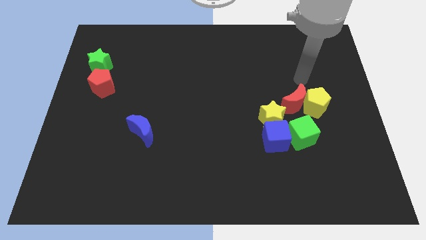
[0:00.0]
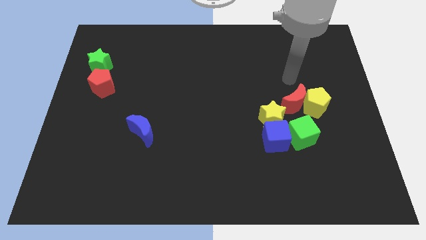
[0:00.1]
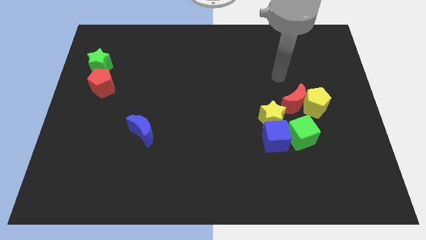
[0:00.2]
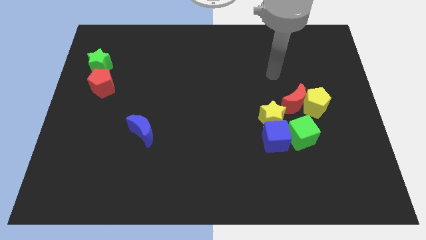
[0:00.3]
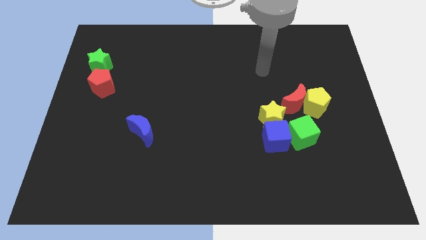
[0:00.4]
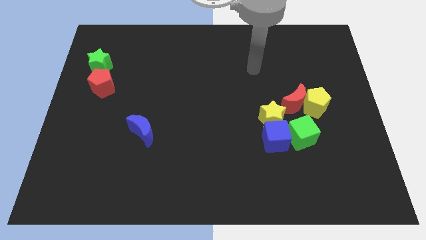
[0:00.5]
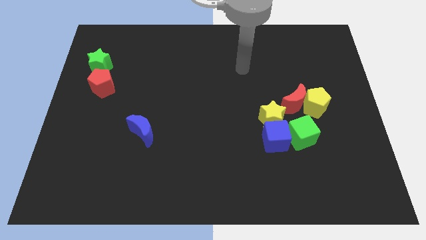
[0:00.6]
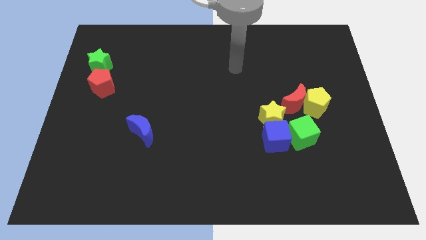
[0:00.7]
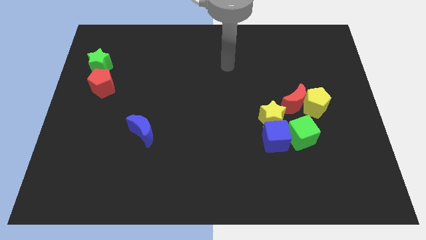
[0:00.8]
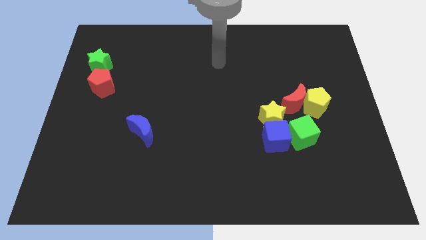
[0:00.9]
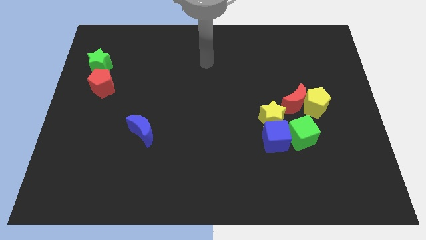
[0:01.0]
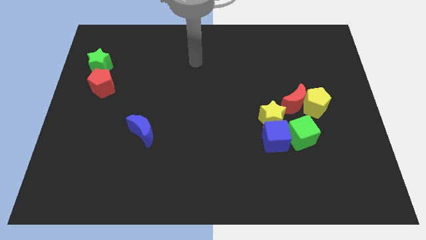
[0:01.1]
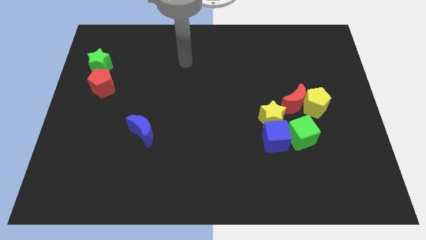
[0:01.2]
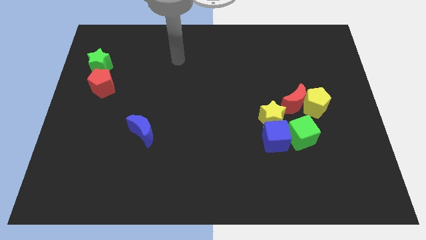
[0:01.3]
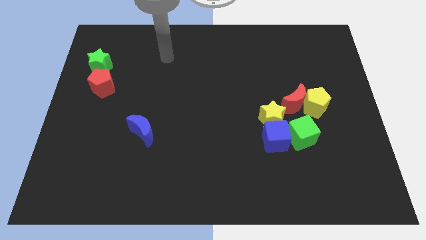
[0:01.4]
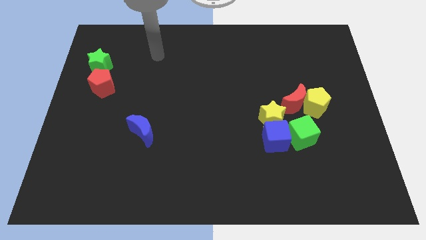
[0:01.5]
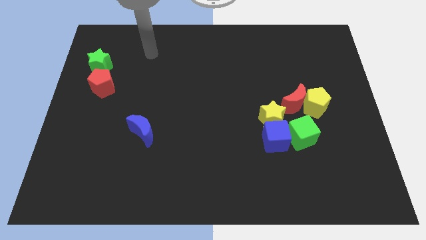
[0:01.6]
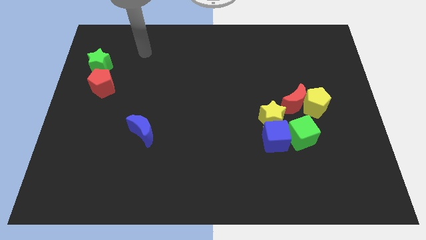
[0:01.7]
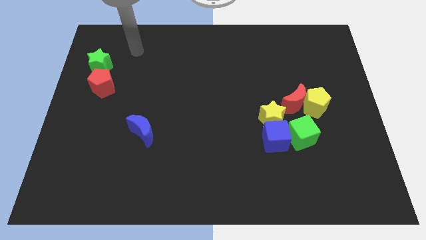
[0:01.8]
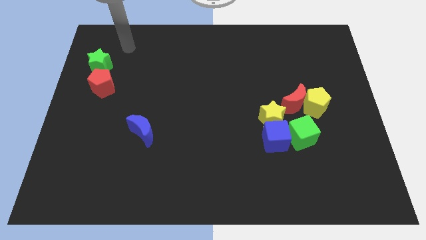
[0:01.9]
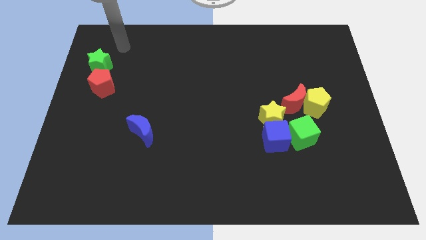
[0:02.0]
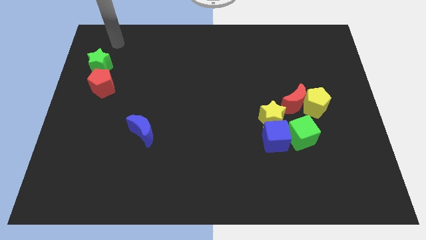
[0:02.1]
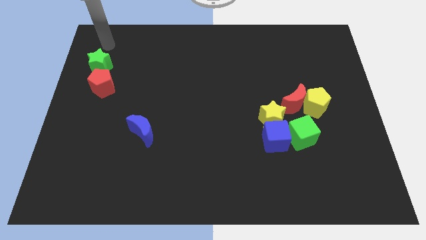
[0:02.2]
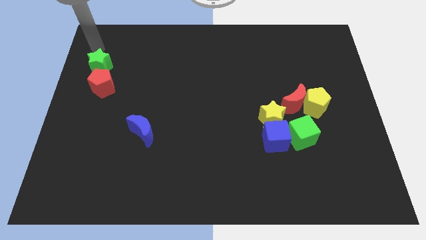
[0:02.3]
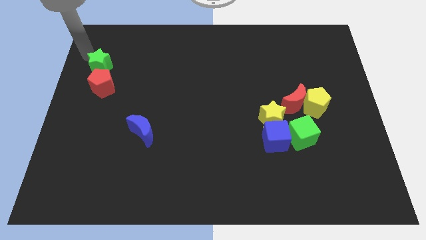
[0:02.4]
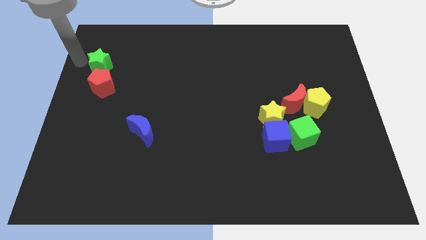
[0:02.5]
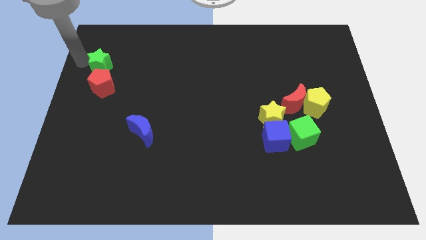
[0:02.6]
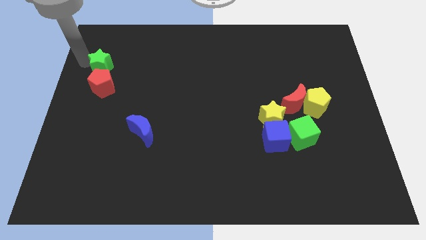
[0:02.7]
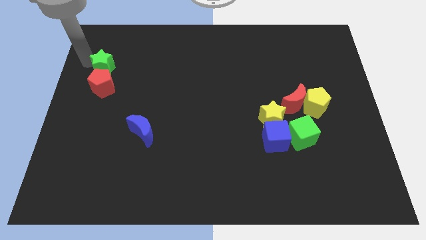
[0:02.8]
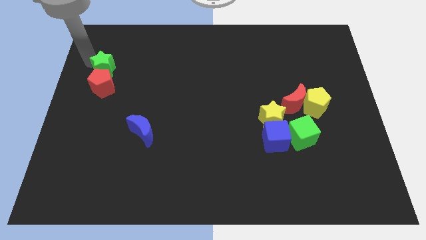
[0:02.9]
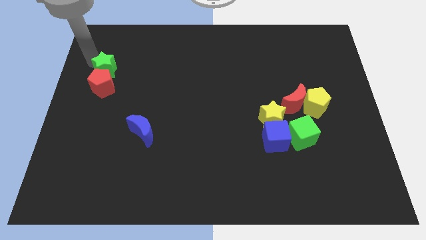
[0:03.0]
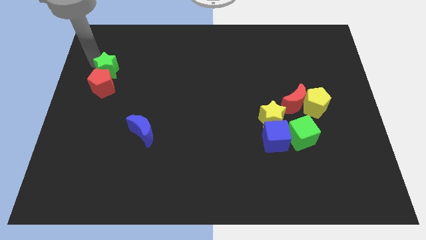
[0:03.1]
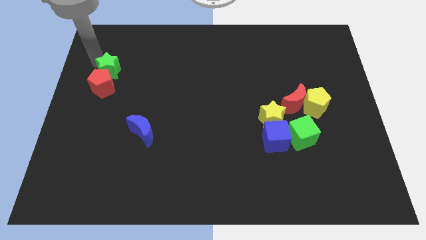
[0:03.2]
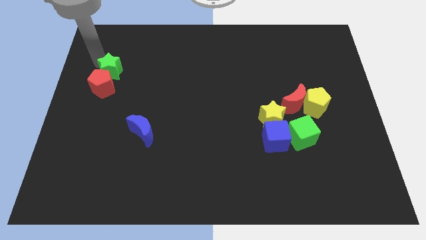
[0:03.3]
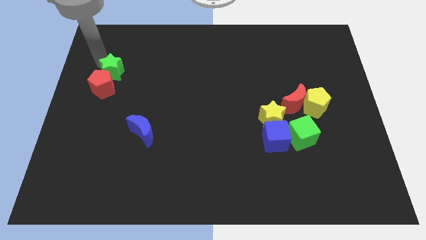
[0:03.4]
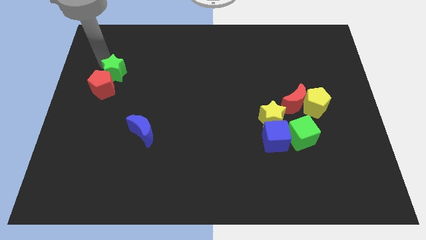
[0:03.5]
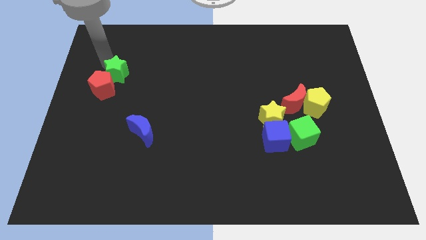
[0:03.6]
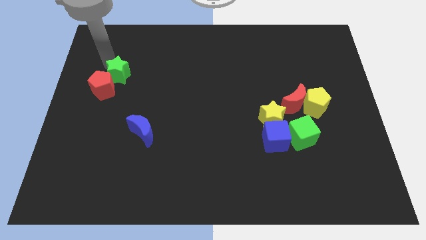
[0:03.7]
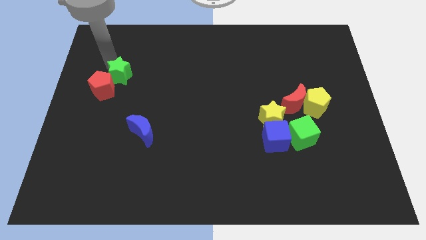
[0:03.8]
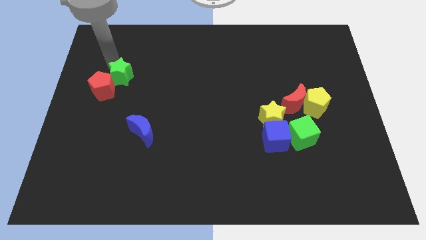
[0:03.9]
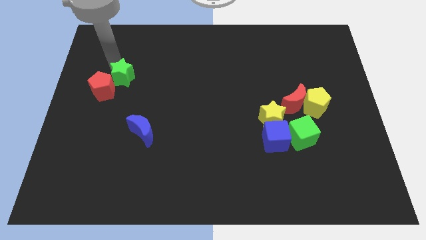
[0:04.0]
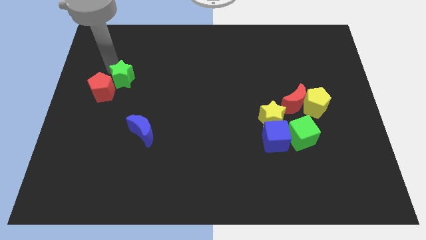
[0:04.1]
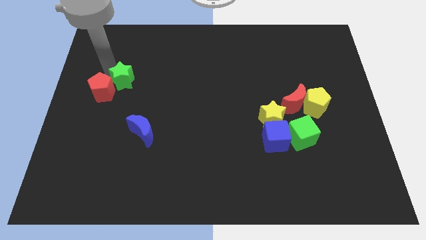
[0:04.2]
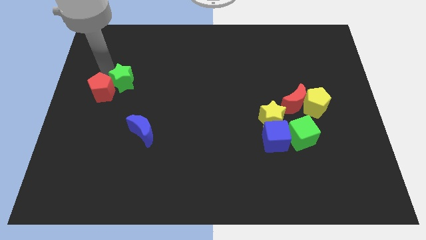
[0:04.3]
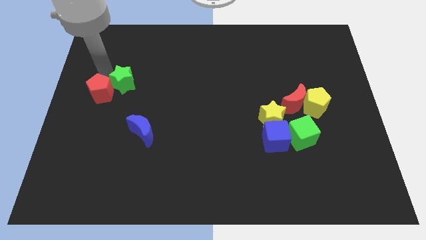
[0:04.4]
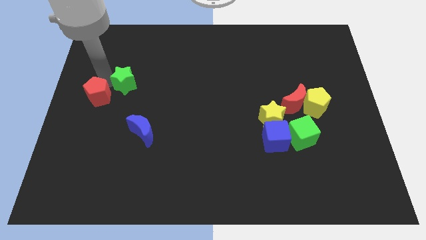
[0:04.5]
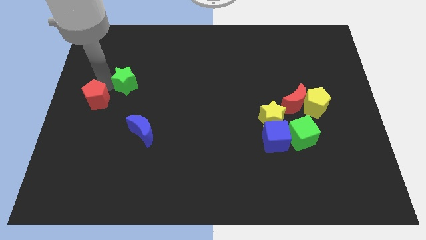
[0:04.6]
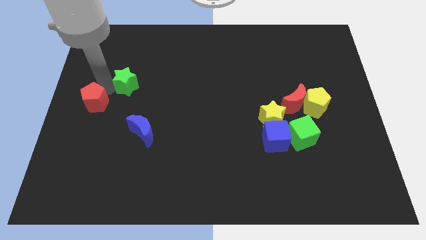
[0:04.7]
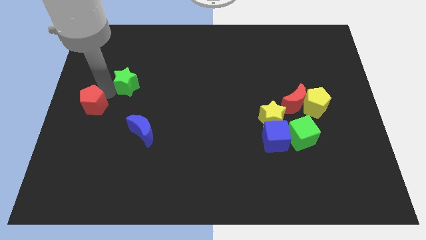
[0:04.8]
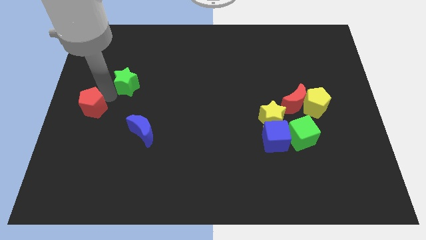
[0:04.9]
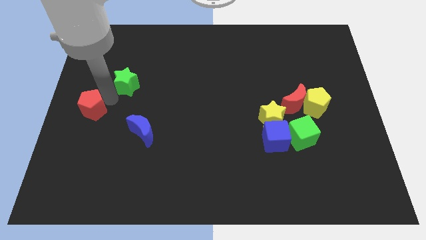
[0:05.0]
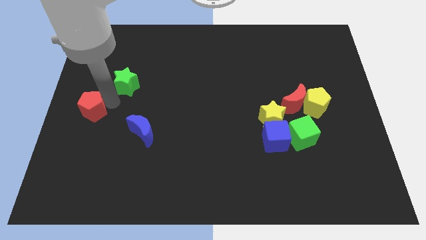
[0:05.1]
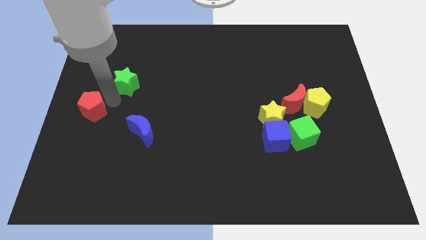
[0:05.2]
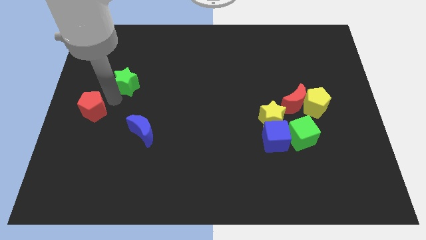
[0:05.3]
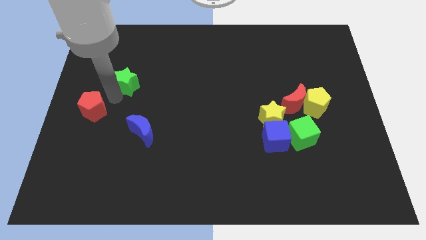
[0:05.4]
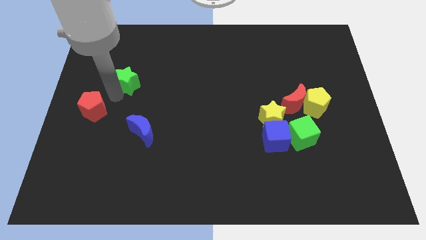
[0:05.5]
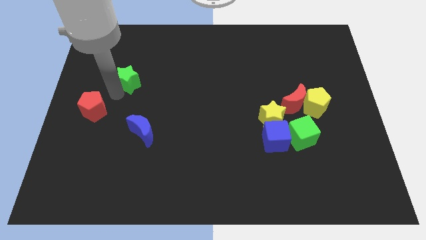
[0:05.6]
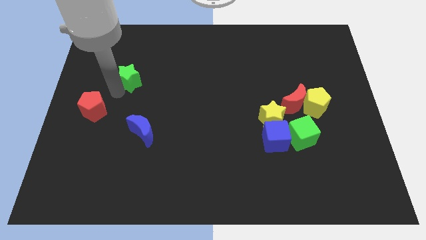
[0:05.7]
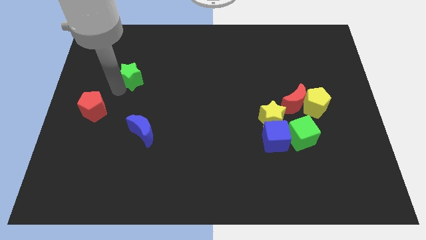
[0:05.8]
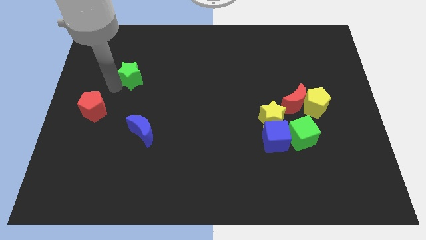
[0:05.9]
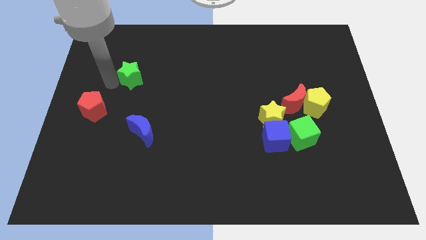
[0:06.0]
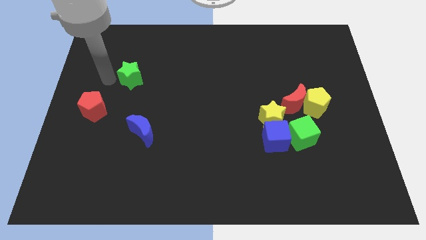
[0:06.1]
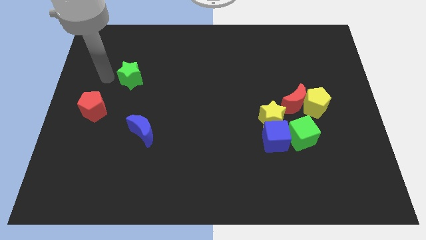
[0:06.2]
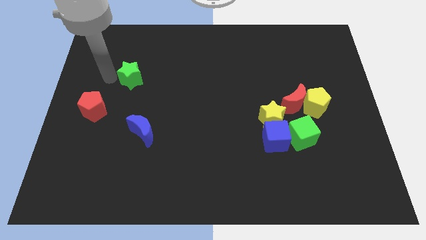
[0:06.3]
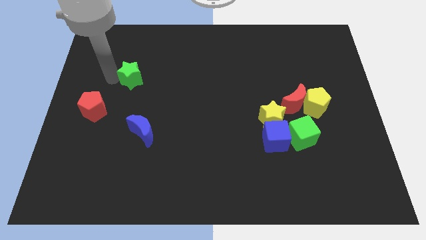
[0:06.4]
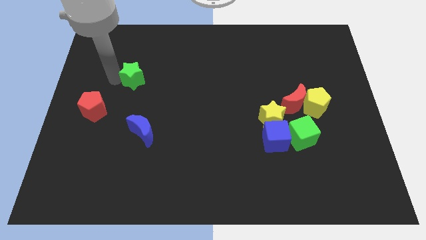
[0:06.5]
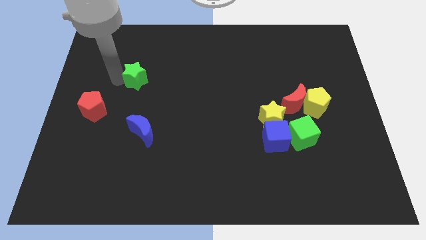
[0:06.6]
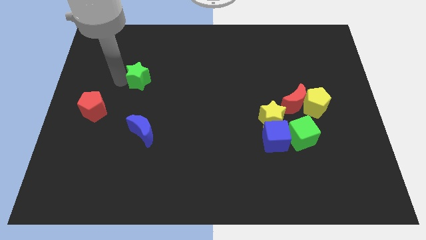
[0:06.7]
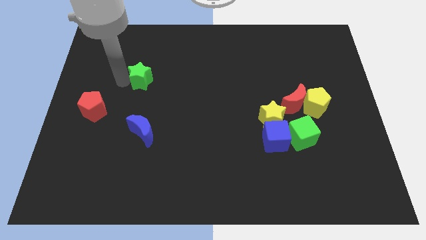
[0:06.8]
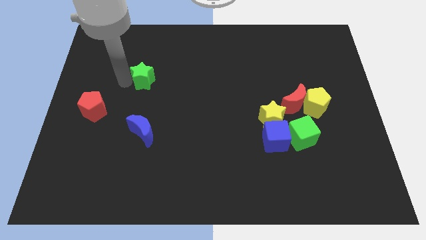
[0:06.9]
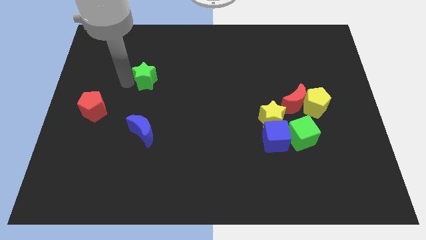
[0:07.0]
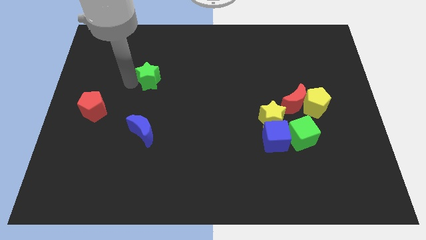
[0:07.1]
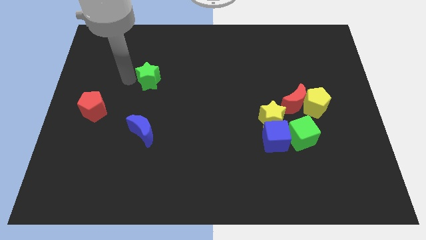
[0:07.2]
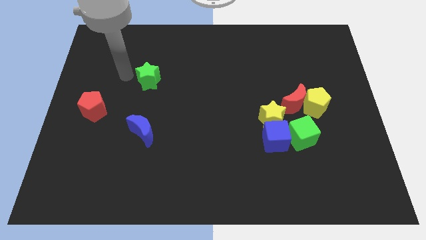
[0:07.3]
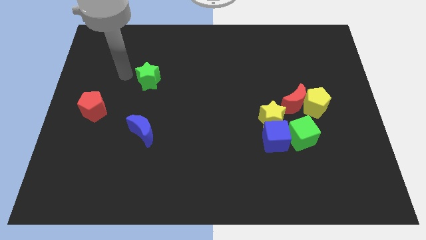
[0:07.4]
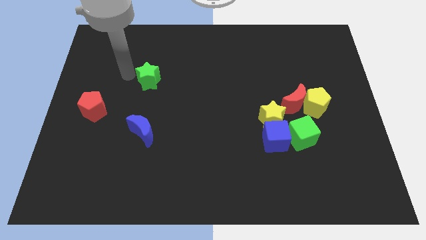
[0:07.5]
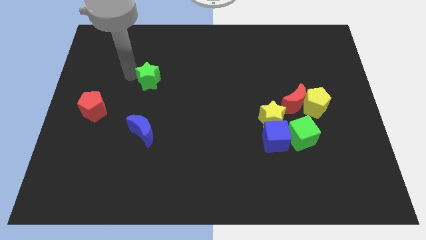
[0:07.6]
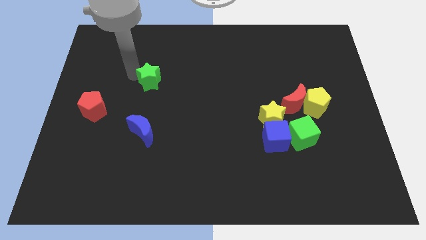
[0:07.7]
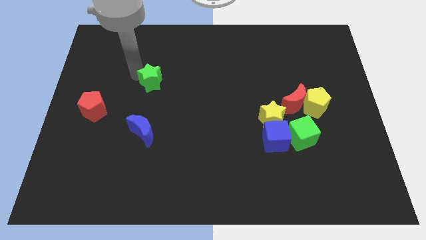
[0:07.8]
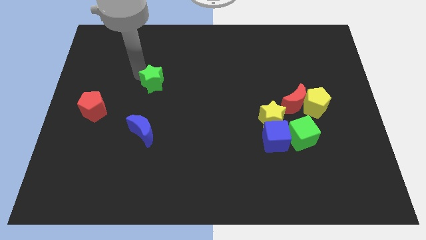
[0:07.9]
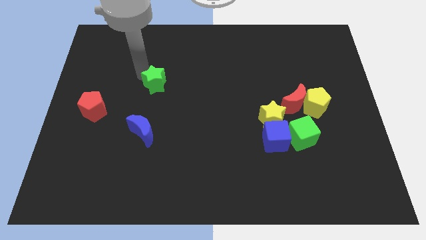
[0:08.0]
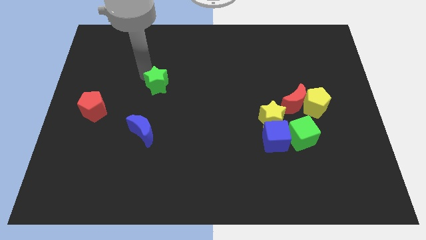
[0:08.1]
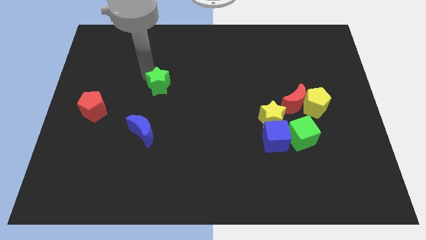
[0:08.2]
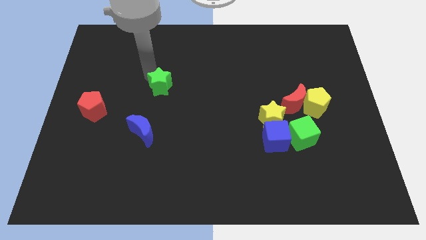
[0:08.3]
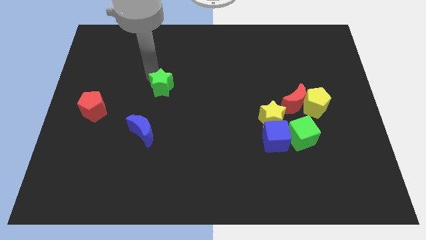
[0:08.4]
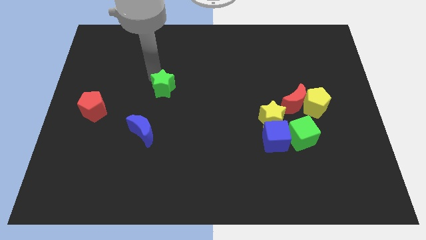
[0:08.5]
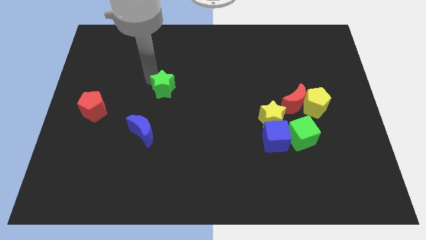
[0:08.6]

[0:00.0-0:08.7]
move the green star to the middle of the board
